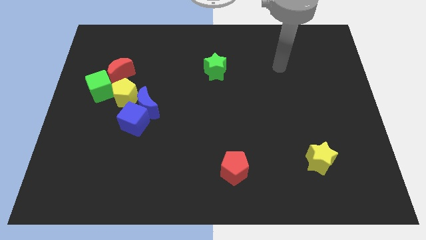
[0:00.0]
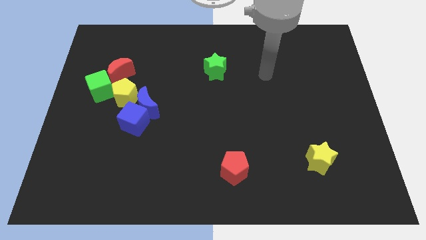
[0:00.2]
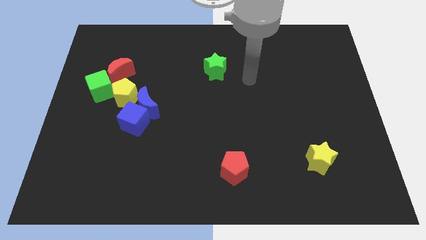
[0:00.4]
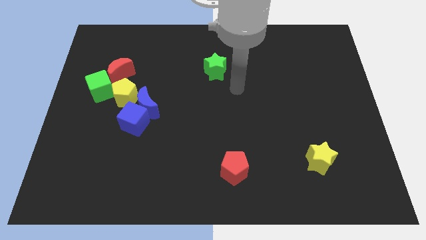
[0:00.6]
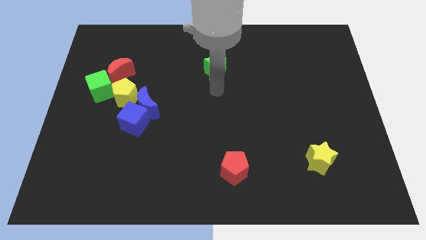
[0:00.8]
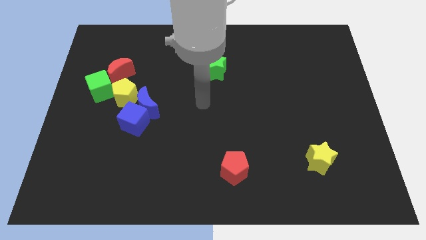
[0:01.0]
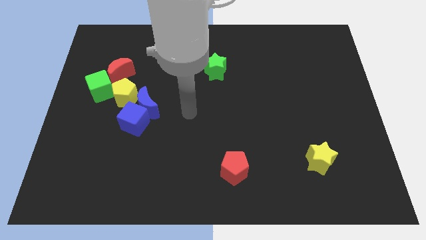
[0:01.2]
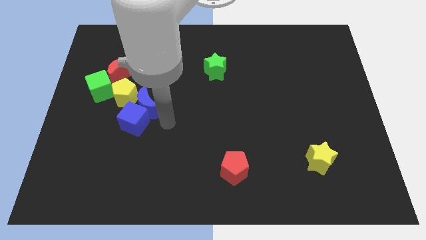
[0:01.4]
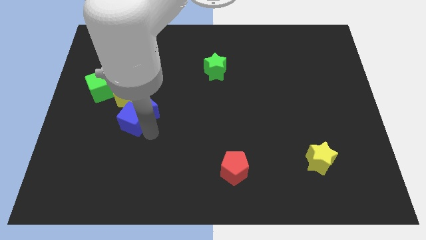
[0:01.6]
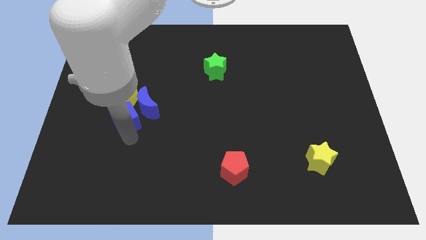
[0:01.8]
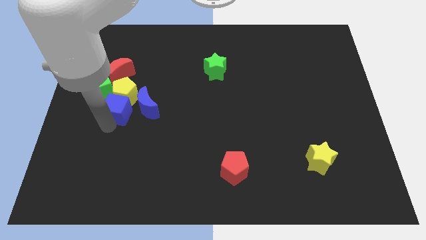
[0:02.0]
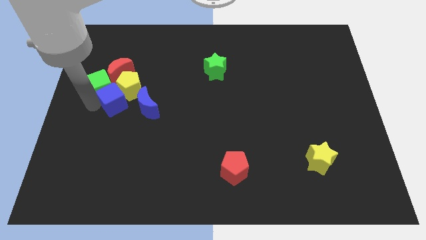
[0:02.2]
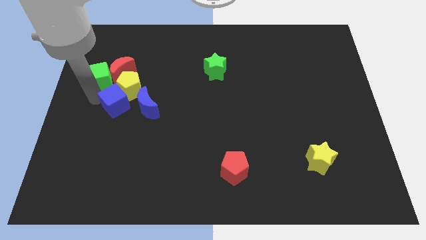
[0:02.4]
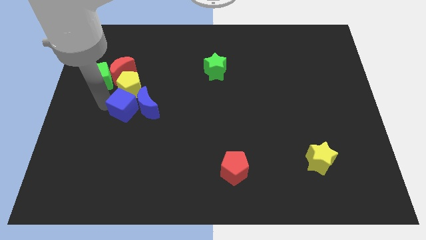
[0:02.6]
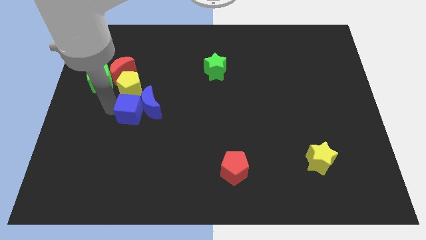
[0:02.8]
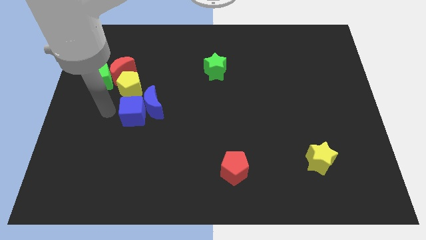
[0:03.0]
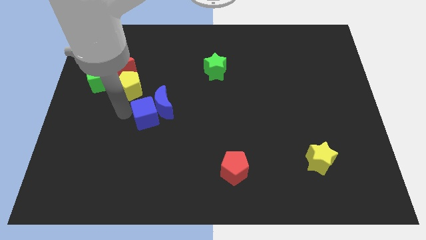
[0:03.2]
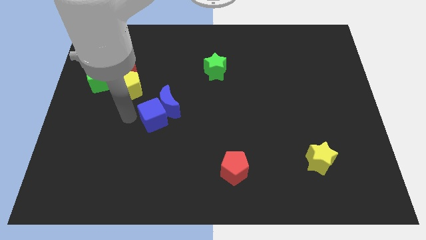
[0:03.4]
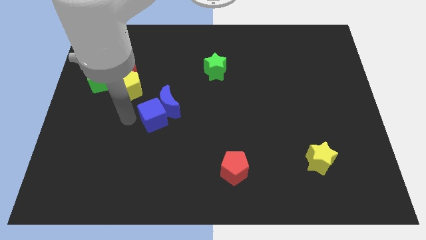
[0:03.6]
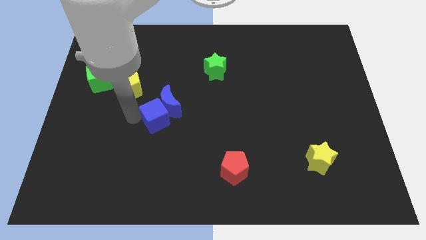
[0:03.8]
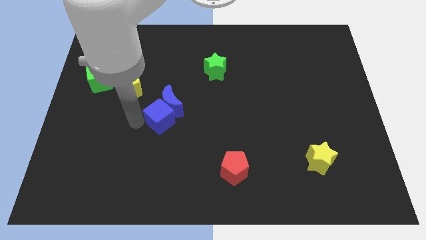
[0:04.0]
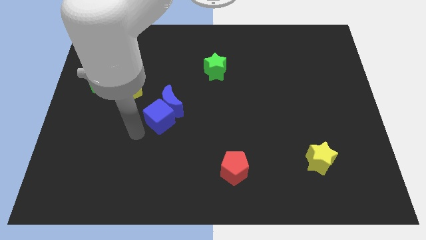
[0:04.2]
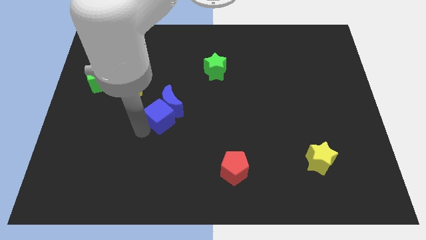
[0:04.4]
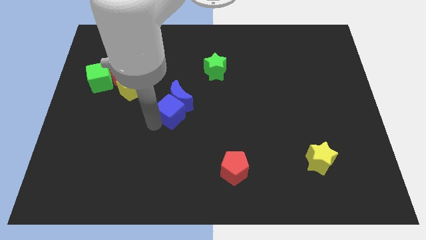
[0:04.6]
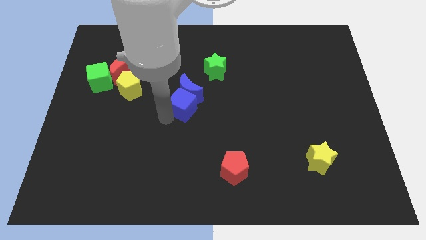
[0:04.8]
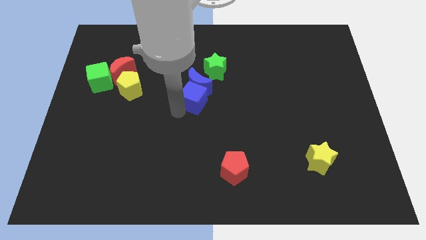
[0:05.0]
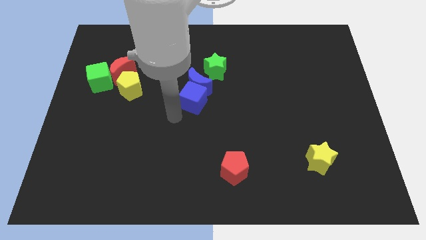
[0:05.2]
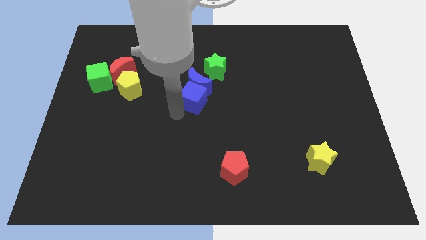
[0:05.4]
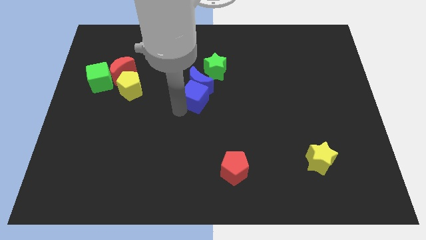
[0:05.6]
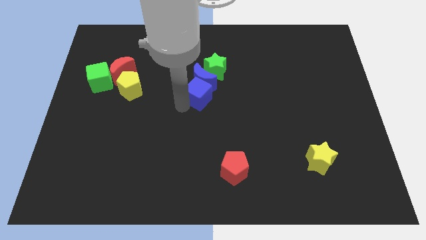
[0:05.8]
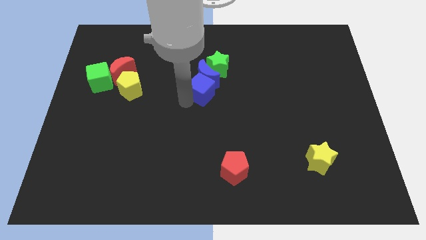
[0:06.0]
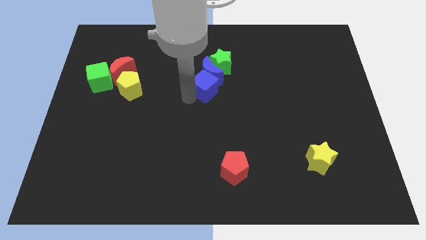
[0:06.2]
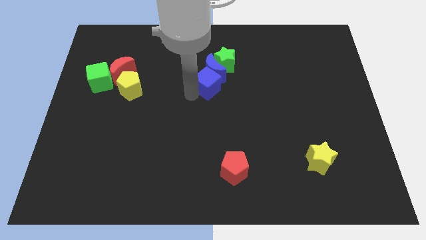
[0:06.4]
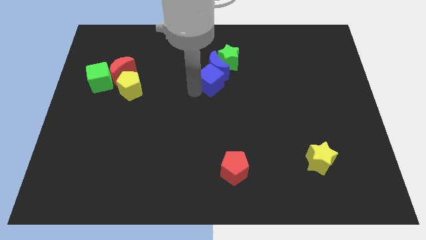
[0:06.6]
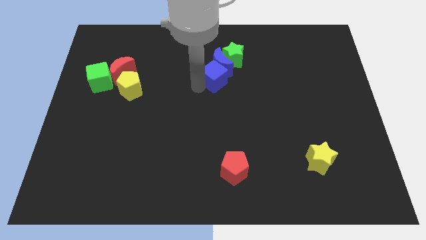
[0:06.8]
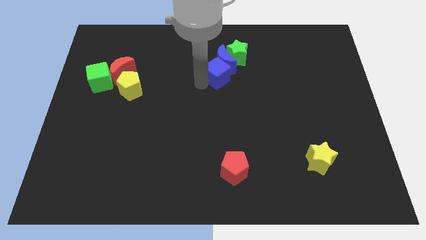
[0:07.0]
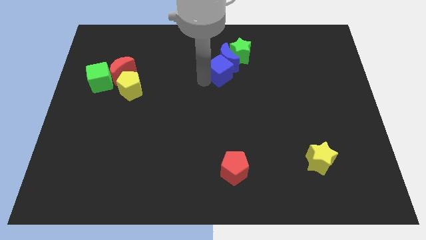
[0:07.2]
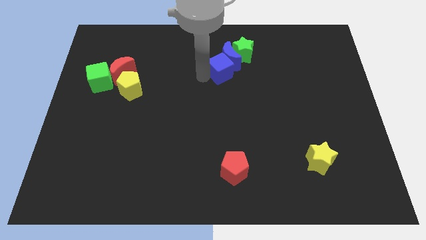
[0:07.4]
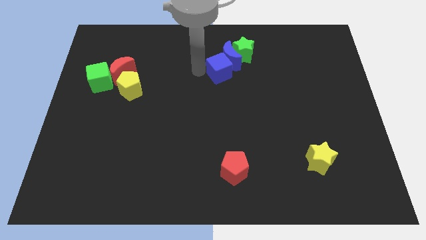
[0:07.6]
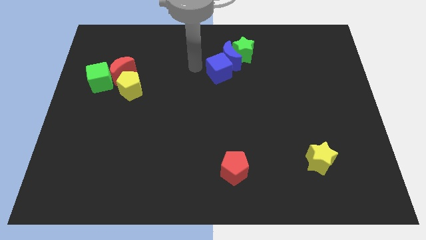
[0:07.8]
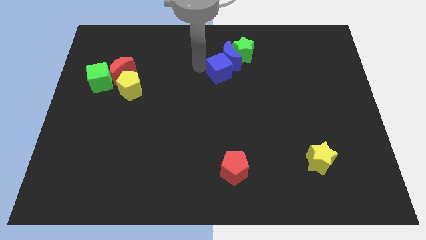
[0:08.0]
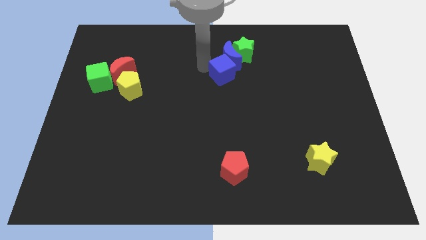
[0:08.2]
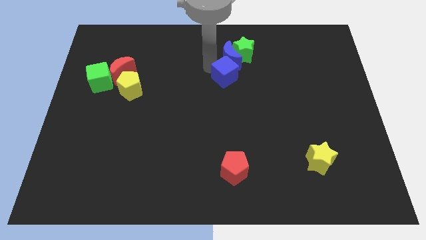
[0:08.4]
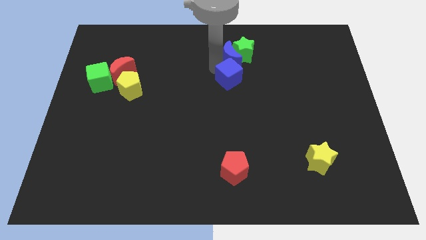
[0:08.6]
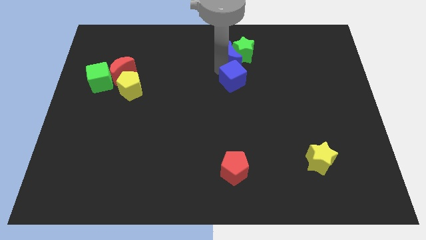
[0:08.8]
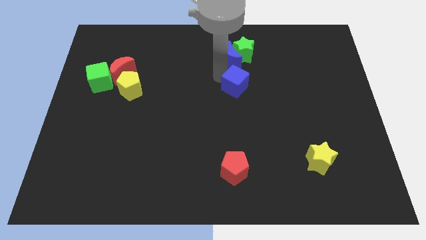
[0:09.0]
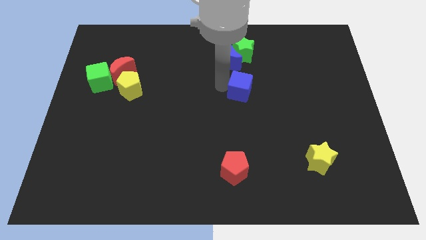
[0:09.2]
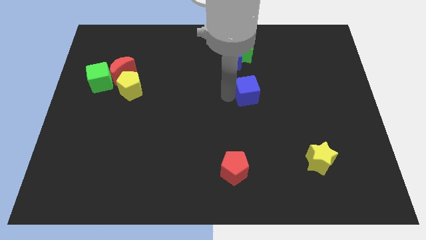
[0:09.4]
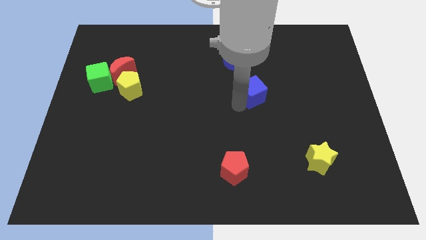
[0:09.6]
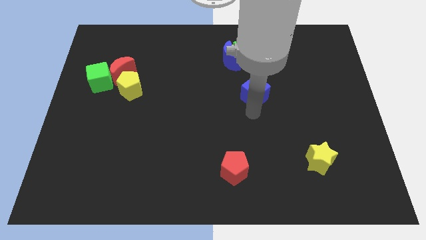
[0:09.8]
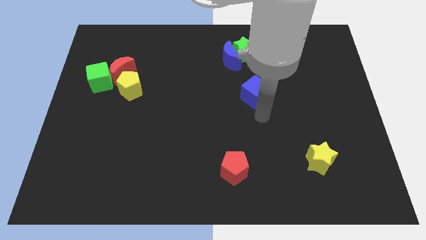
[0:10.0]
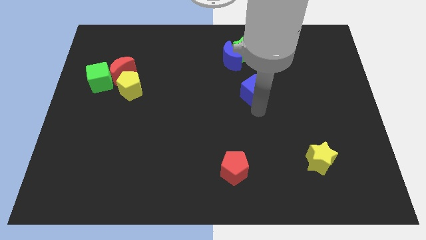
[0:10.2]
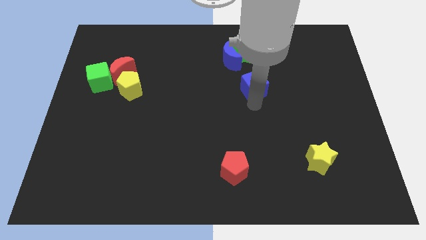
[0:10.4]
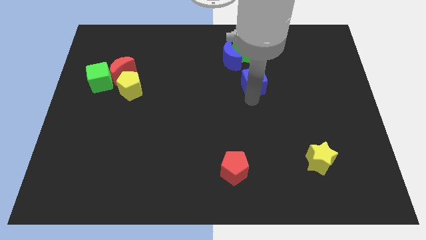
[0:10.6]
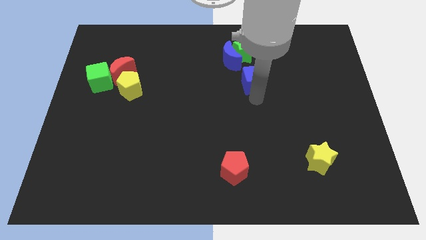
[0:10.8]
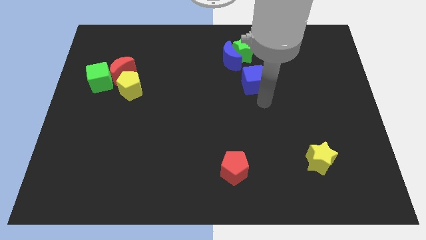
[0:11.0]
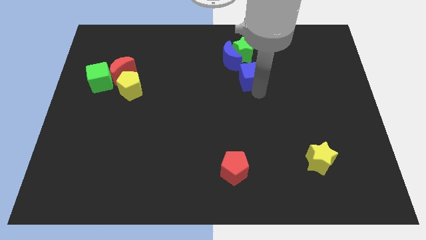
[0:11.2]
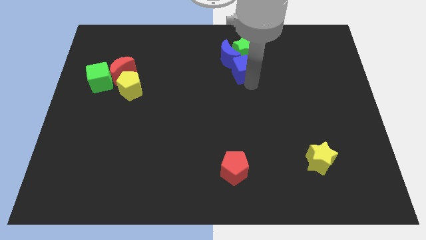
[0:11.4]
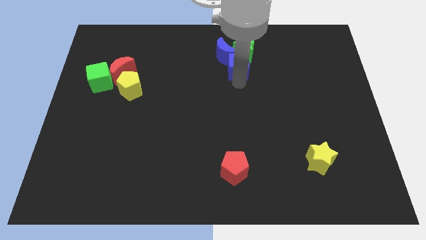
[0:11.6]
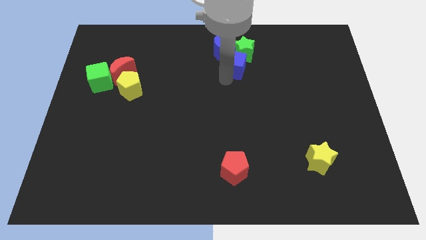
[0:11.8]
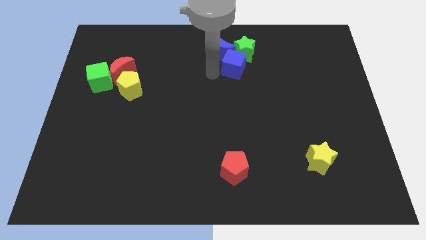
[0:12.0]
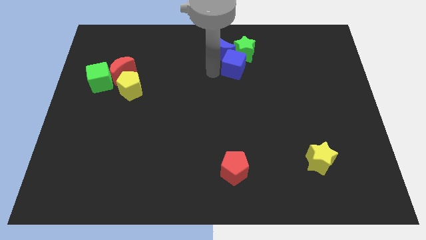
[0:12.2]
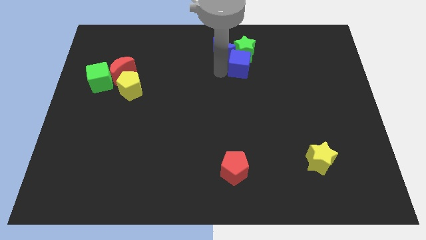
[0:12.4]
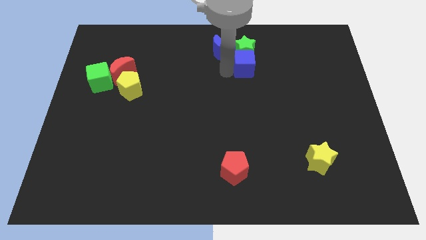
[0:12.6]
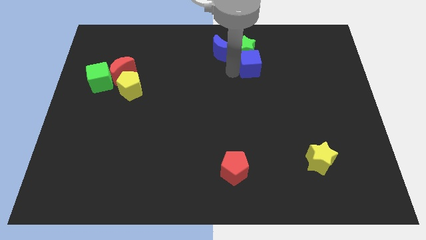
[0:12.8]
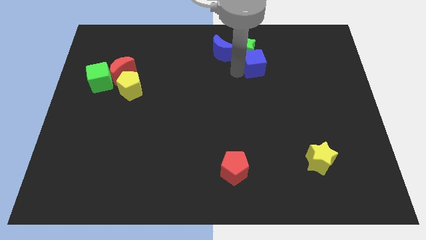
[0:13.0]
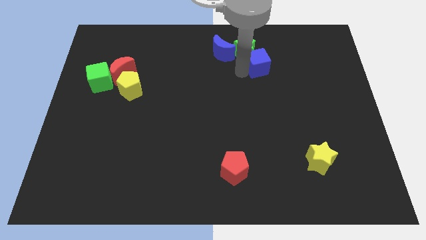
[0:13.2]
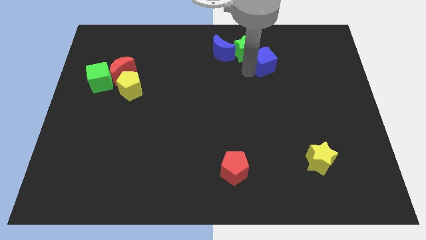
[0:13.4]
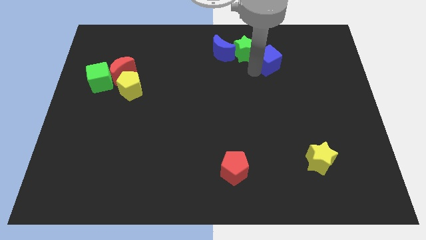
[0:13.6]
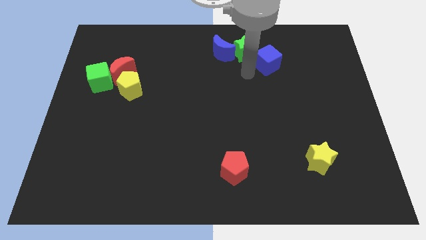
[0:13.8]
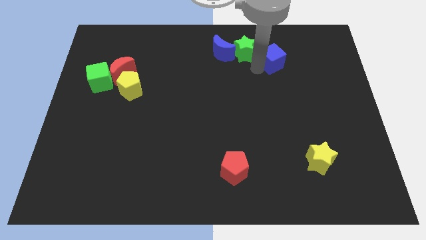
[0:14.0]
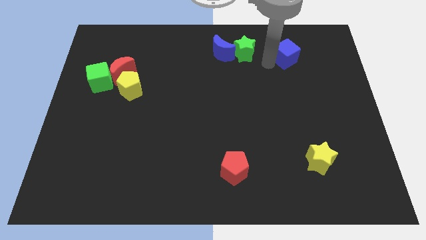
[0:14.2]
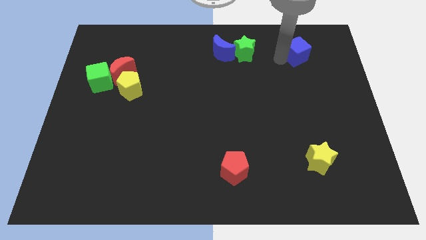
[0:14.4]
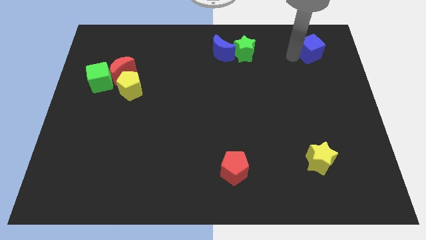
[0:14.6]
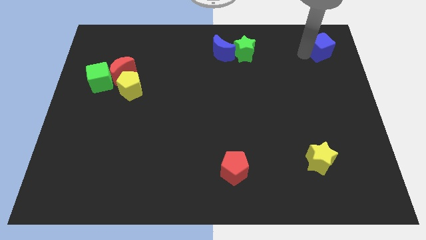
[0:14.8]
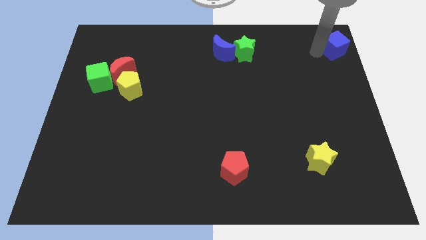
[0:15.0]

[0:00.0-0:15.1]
put the blue cube to the top right of the board
